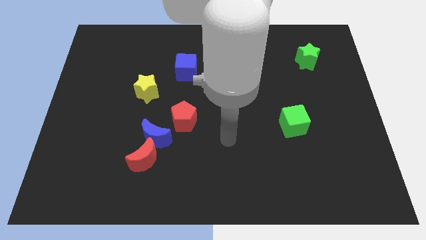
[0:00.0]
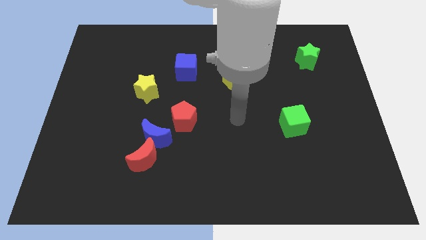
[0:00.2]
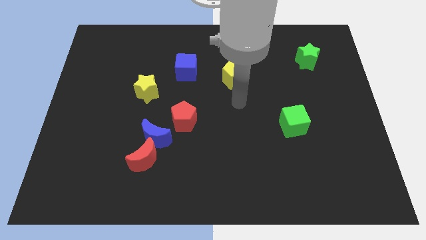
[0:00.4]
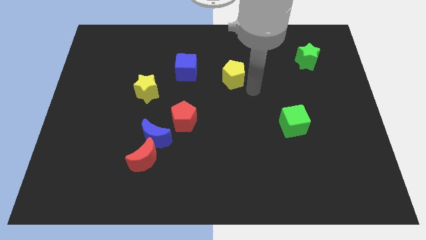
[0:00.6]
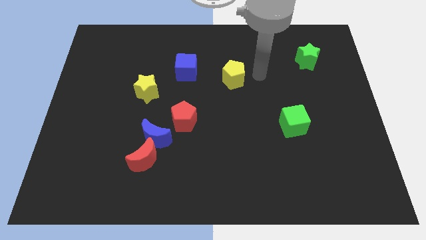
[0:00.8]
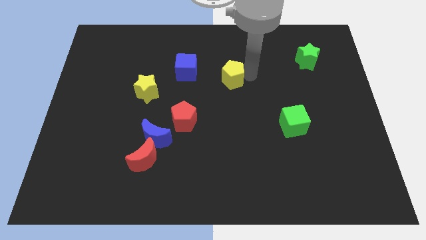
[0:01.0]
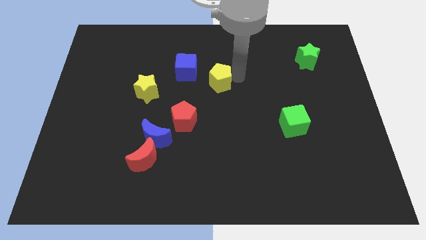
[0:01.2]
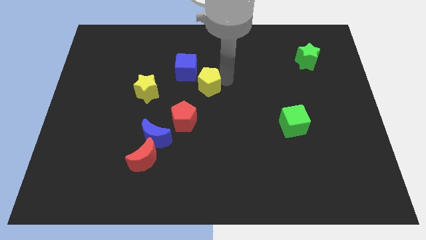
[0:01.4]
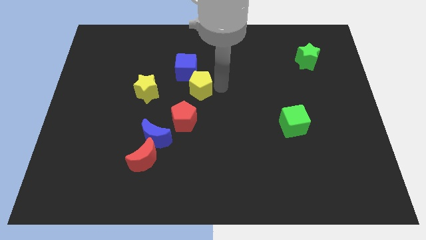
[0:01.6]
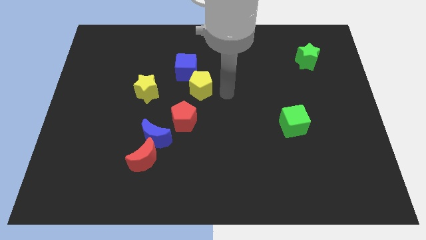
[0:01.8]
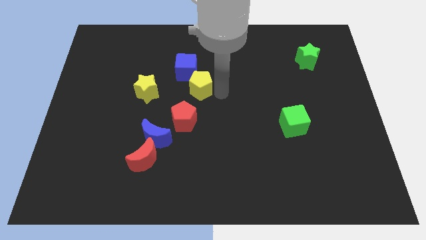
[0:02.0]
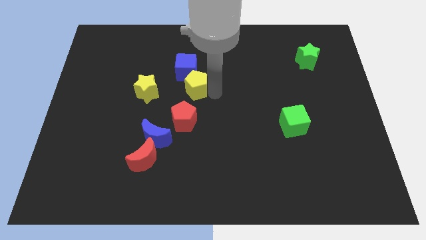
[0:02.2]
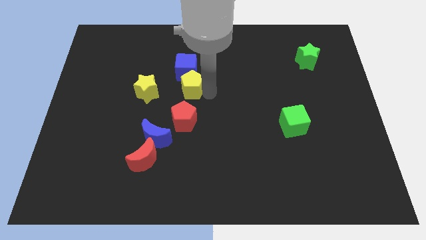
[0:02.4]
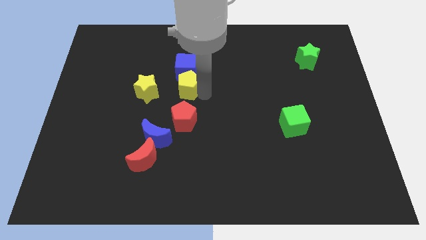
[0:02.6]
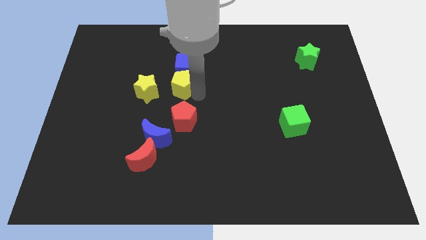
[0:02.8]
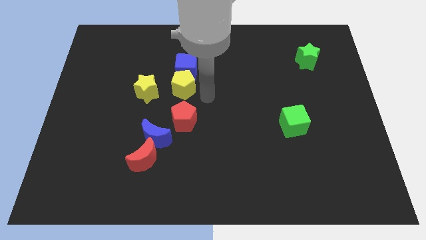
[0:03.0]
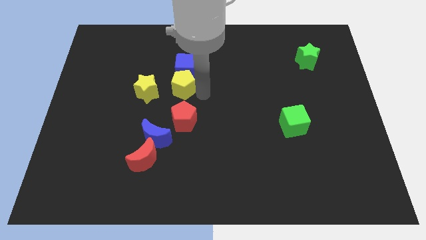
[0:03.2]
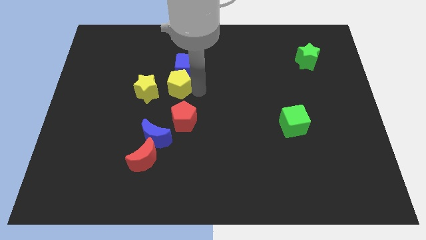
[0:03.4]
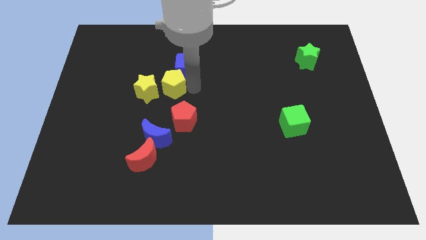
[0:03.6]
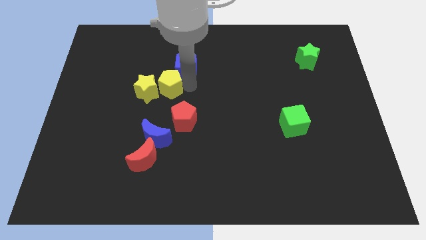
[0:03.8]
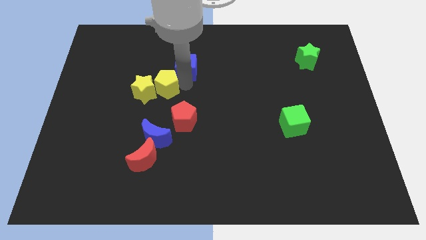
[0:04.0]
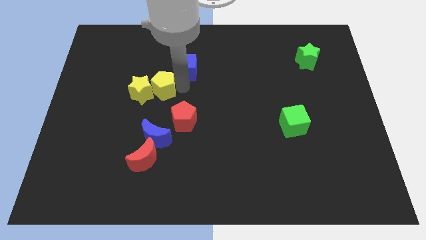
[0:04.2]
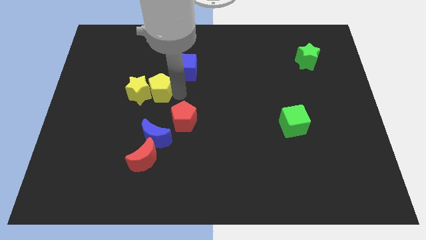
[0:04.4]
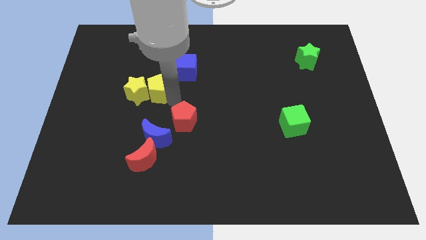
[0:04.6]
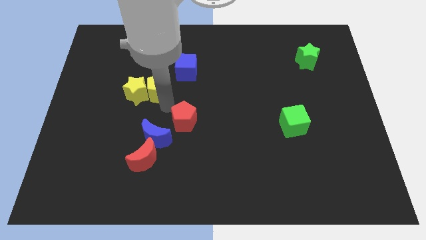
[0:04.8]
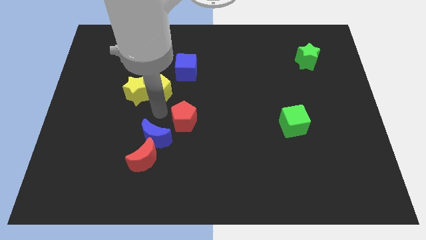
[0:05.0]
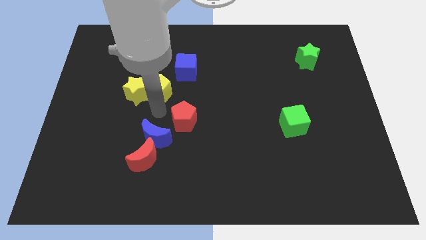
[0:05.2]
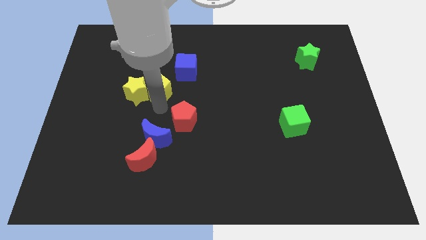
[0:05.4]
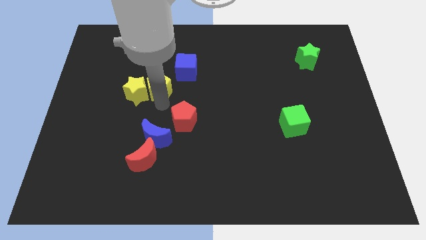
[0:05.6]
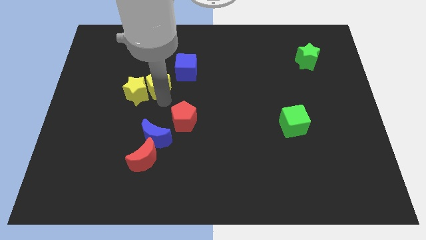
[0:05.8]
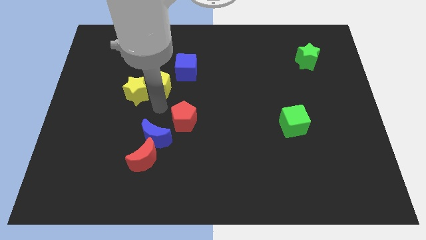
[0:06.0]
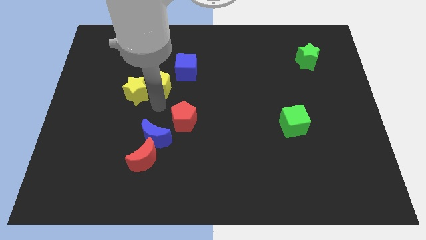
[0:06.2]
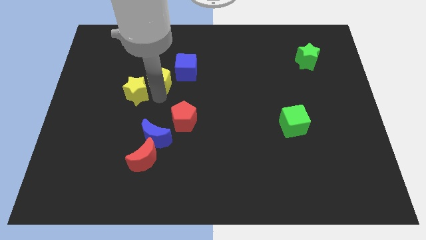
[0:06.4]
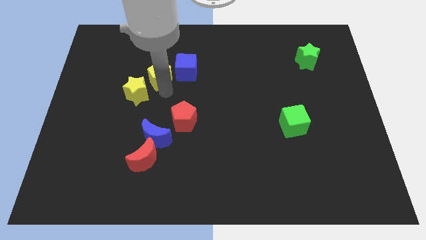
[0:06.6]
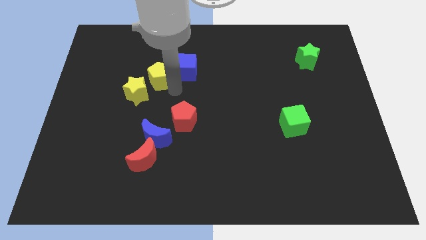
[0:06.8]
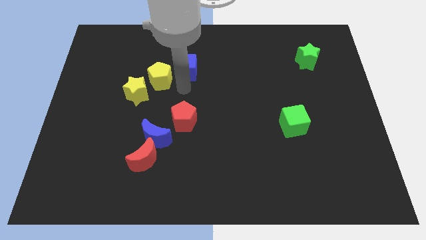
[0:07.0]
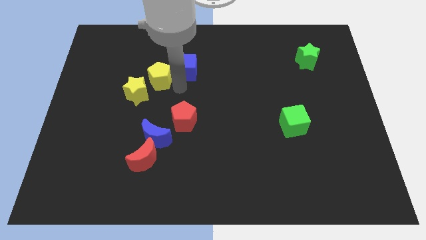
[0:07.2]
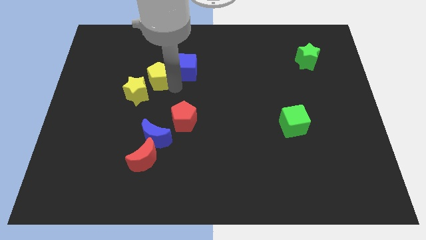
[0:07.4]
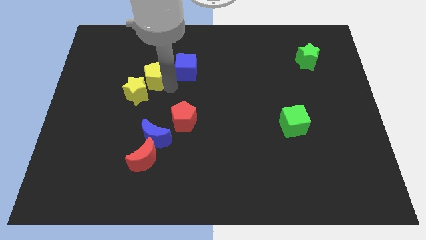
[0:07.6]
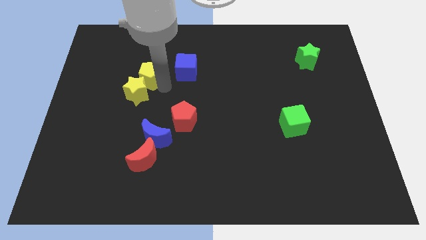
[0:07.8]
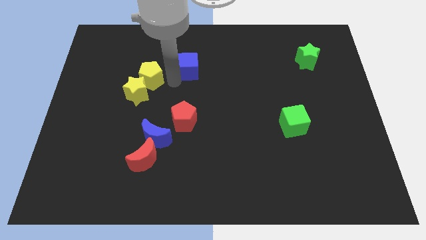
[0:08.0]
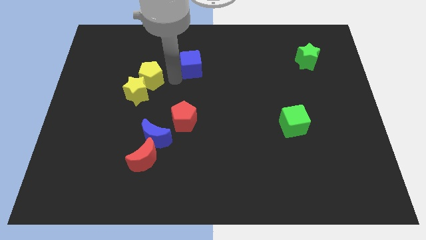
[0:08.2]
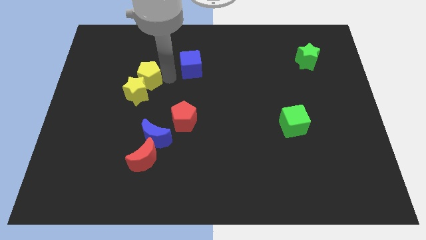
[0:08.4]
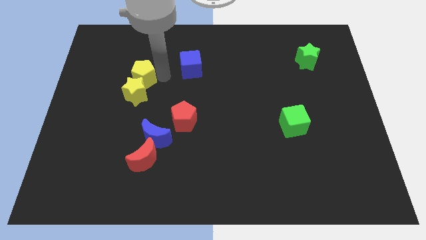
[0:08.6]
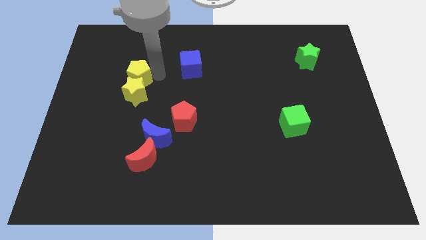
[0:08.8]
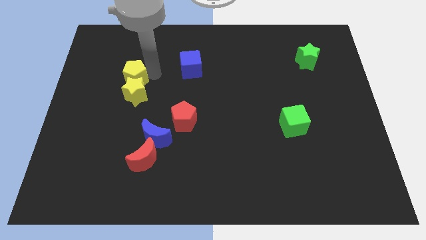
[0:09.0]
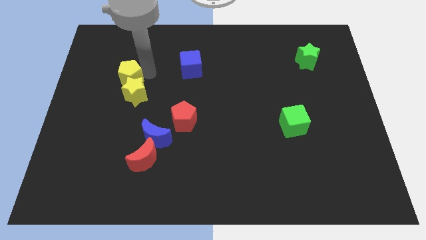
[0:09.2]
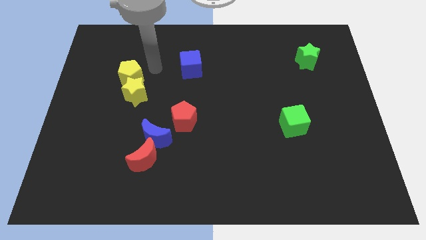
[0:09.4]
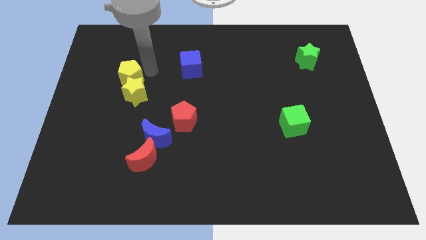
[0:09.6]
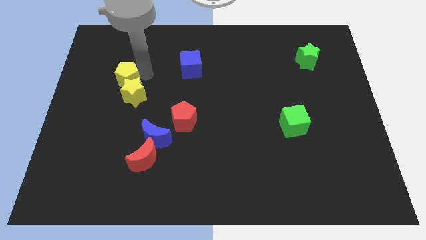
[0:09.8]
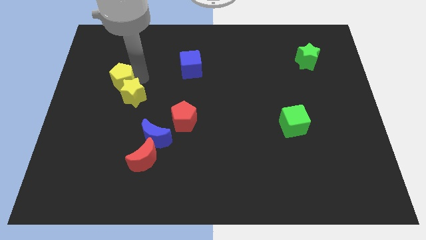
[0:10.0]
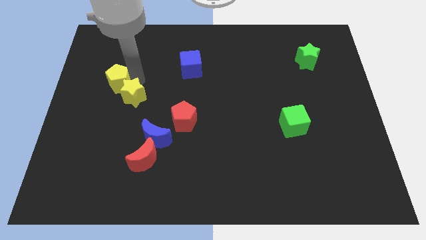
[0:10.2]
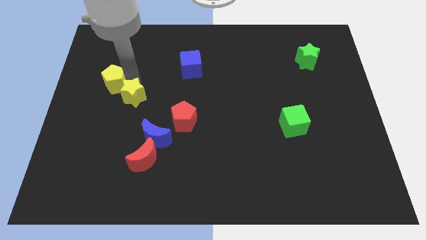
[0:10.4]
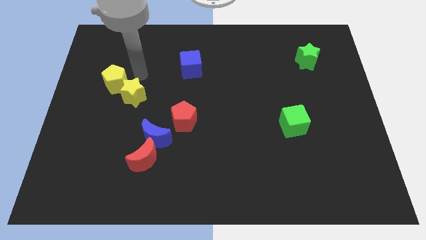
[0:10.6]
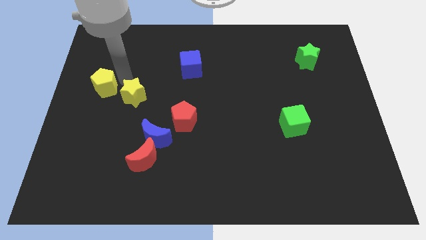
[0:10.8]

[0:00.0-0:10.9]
slide the yellow pentagon to the left side
